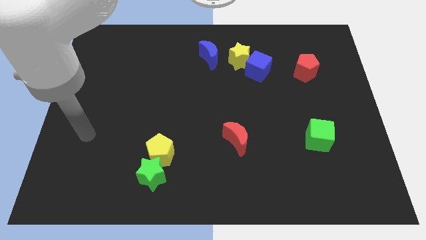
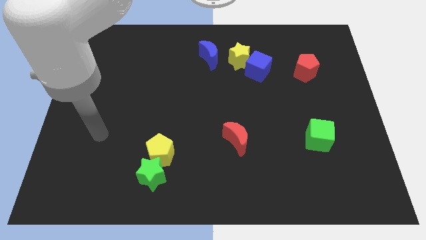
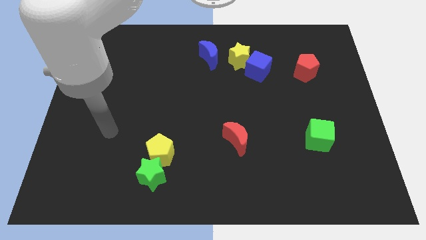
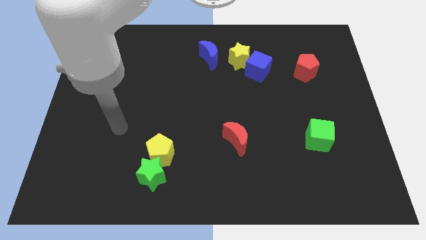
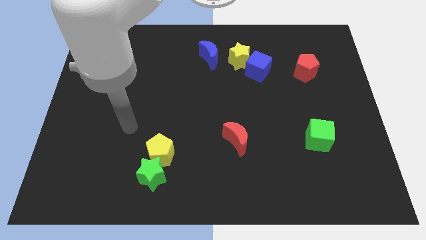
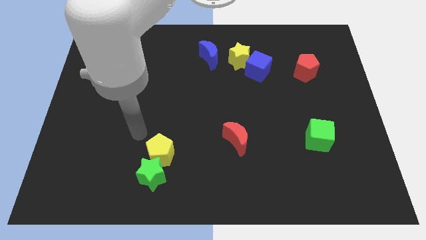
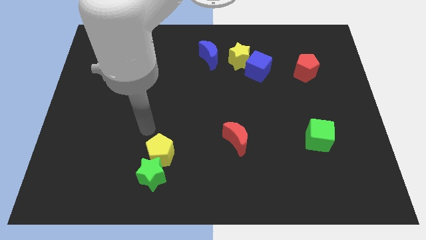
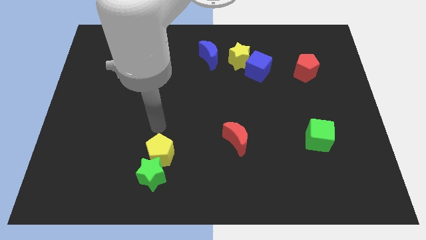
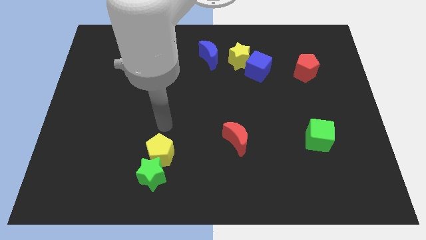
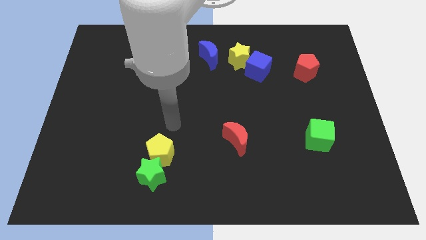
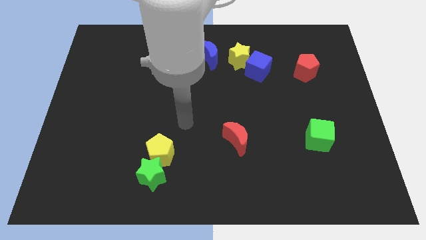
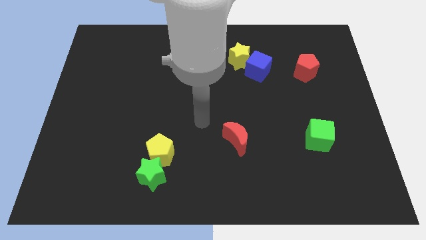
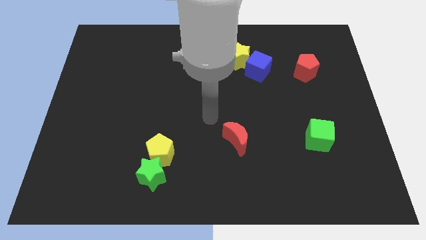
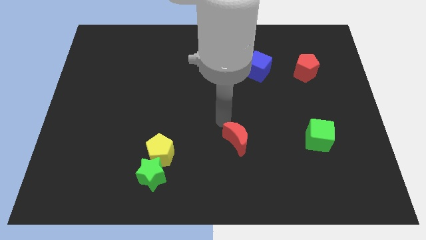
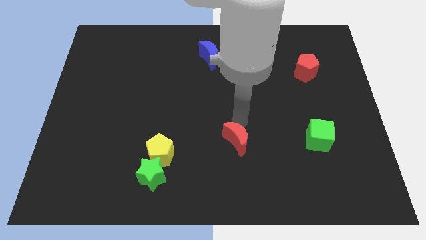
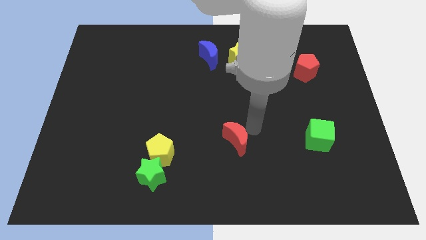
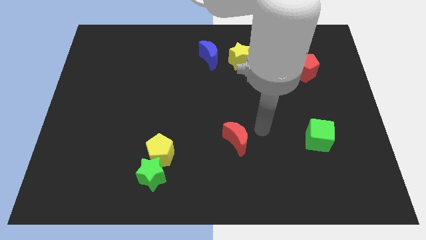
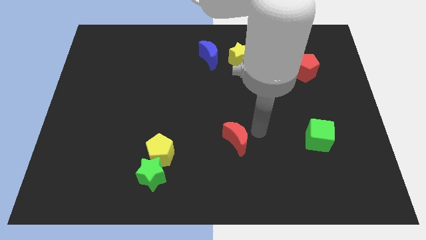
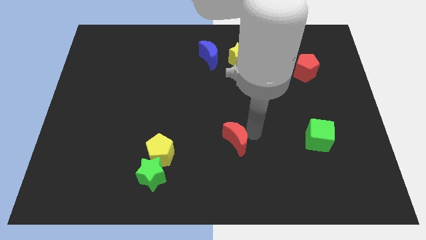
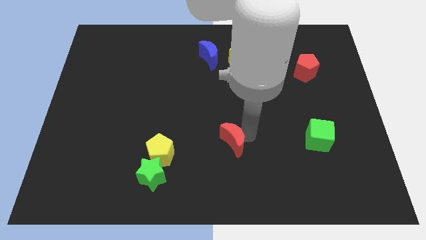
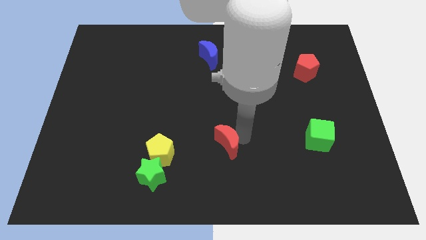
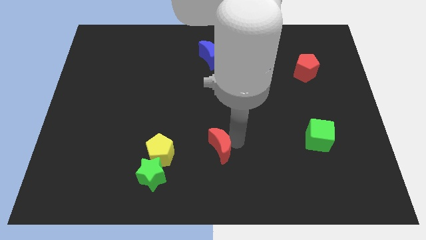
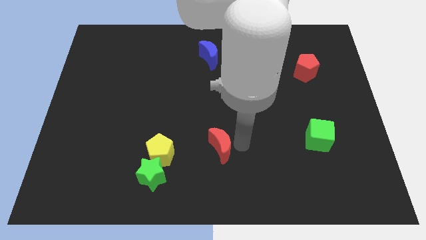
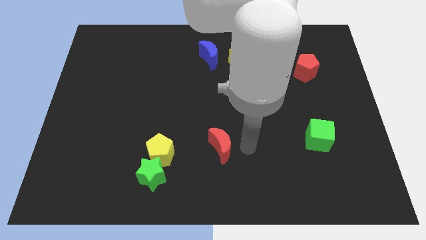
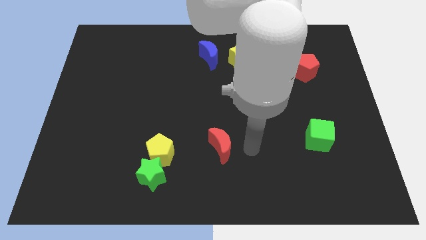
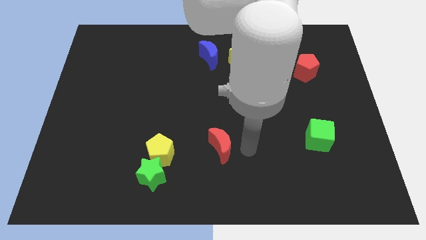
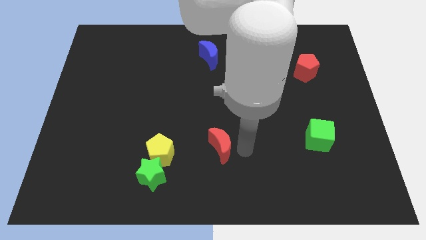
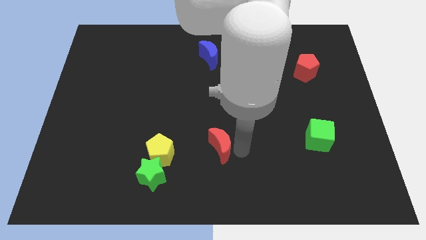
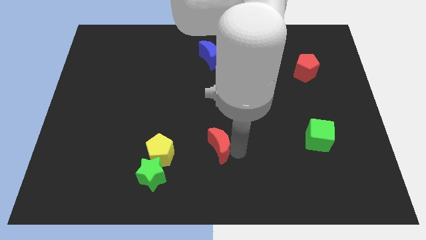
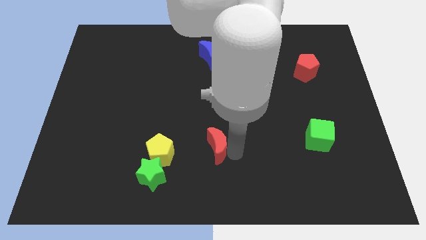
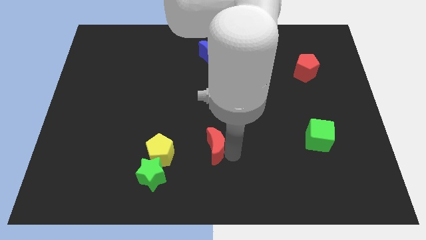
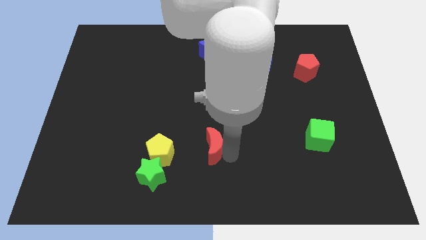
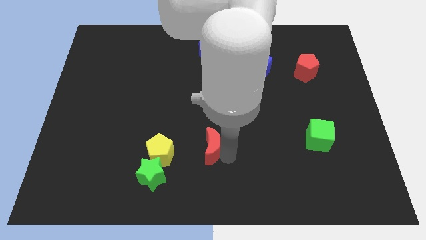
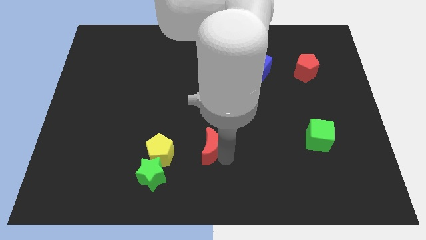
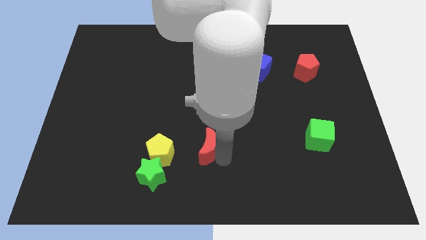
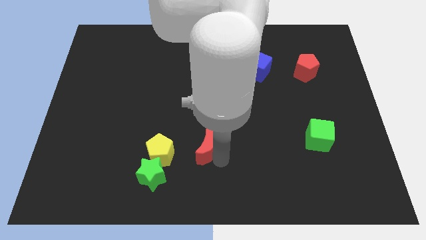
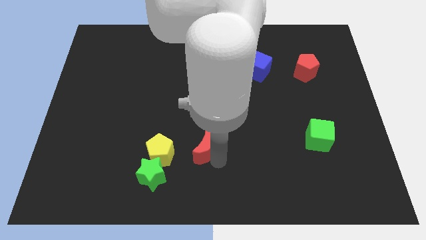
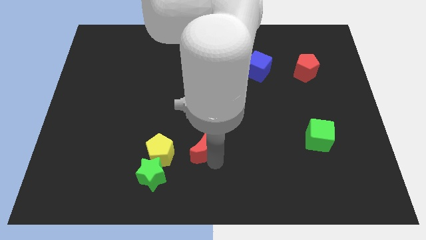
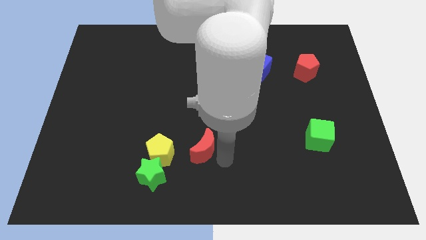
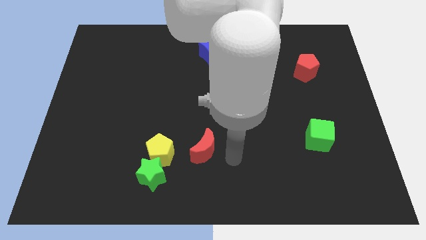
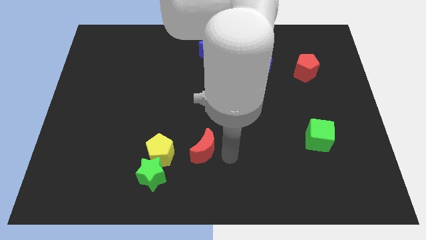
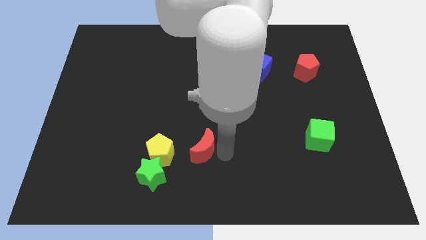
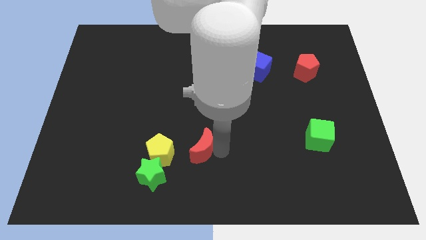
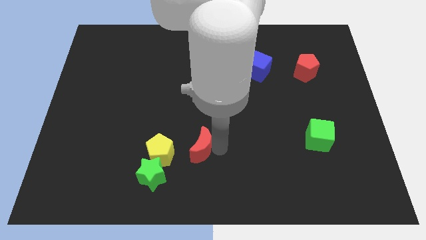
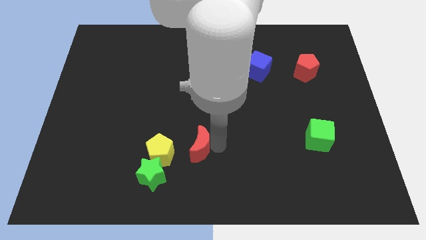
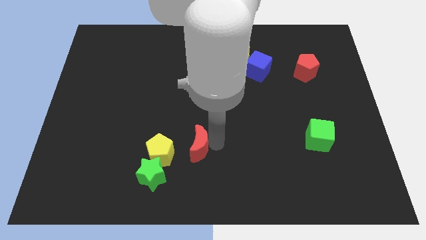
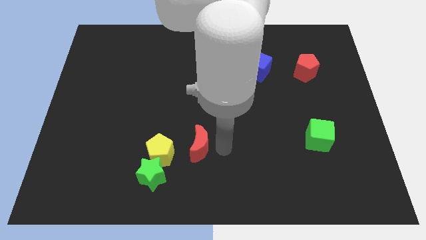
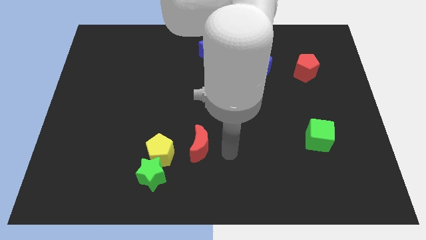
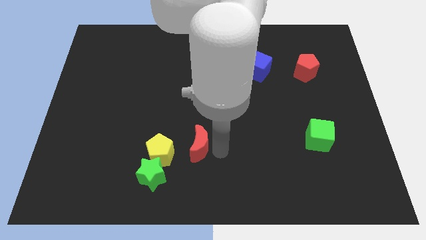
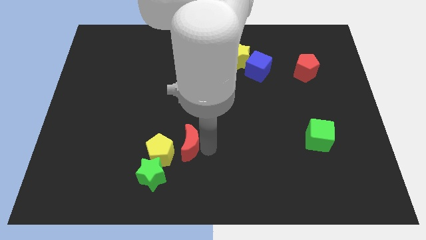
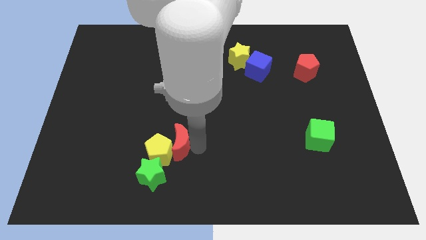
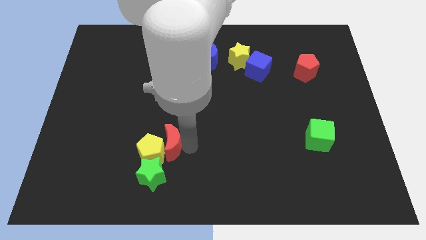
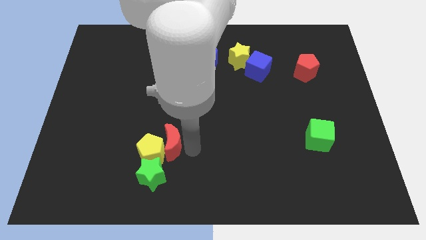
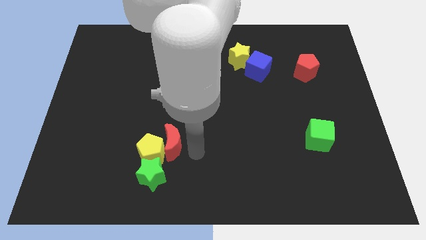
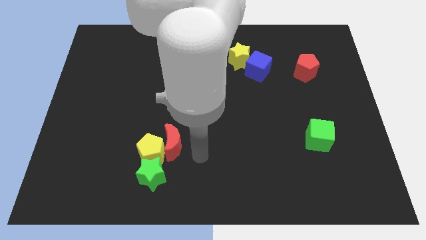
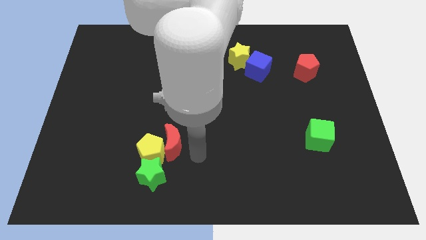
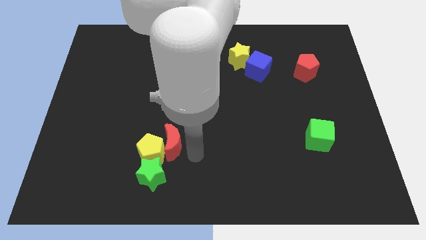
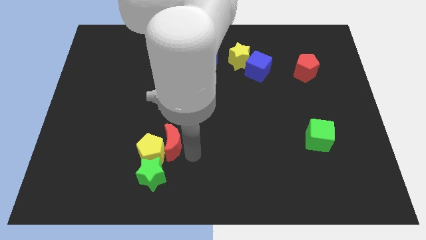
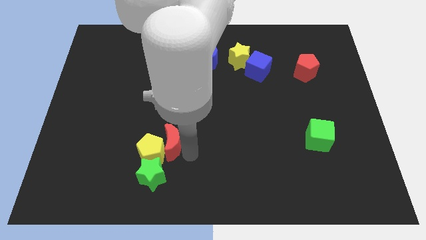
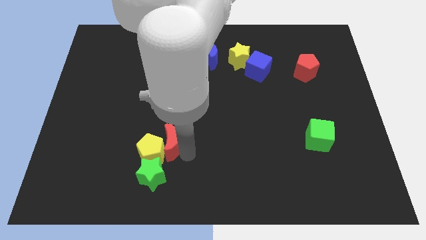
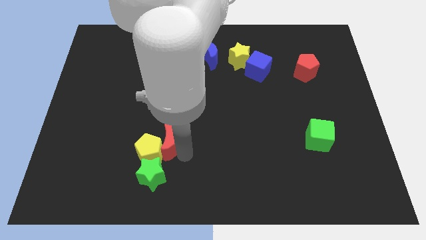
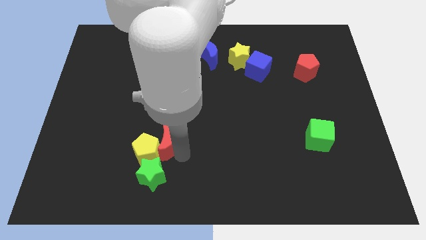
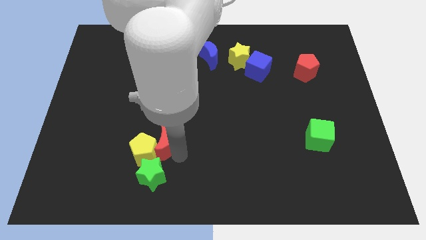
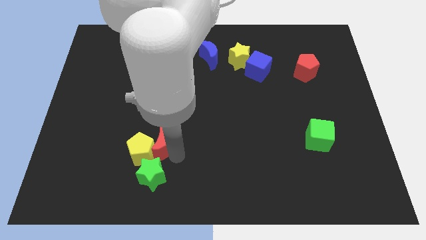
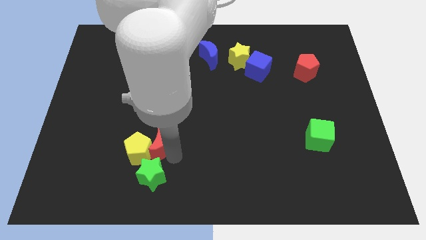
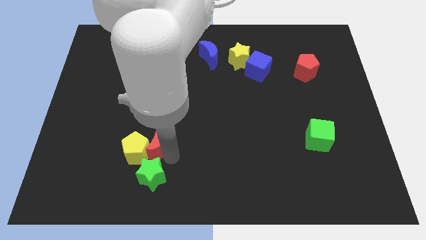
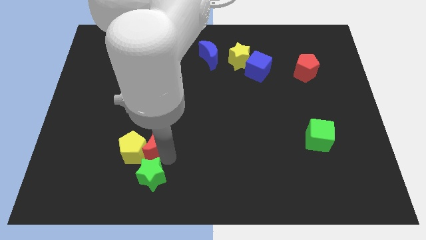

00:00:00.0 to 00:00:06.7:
move the red moon to the top left of the green star
